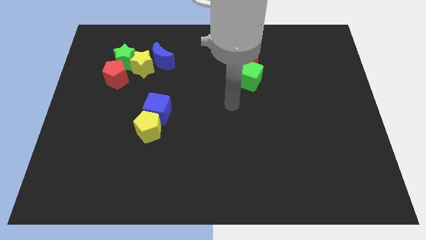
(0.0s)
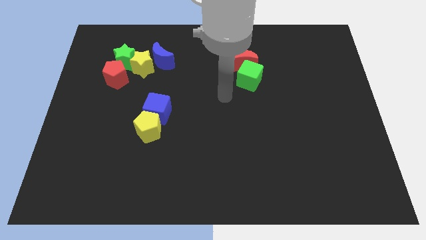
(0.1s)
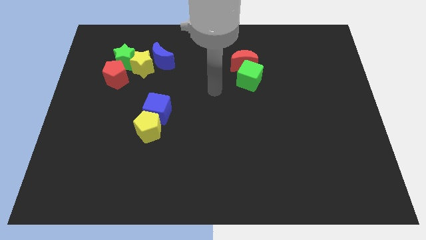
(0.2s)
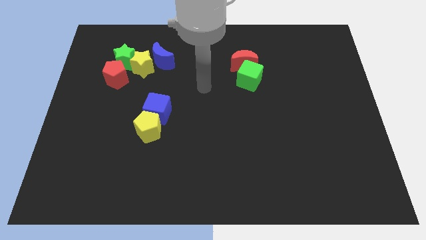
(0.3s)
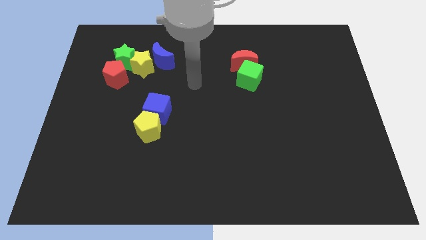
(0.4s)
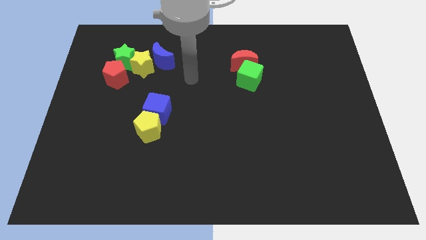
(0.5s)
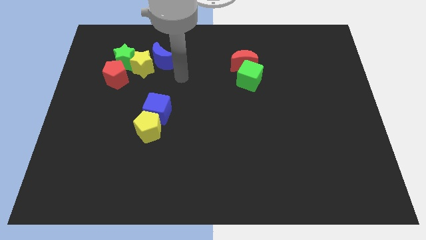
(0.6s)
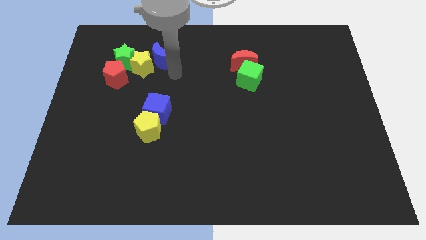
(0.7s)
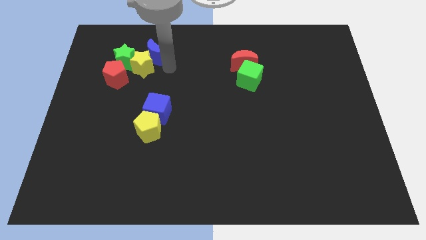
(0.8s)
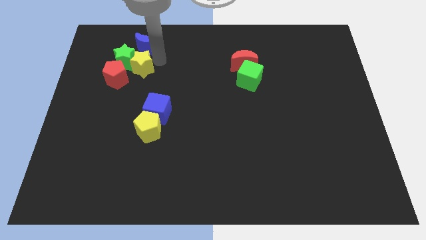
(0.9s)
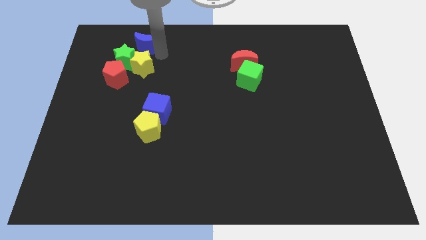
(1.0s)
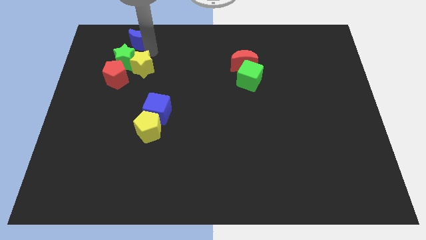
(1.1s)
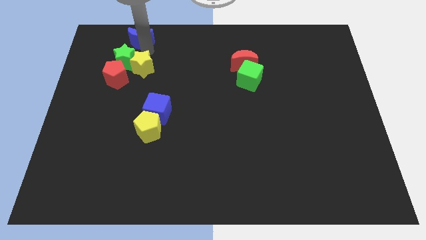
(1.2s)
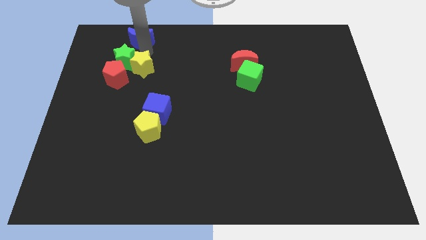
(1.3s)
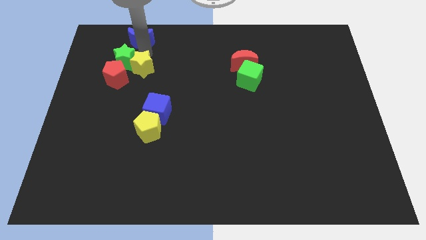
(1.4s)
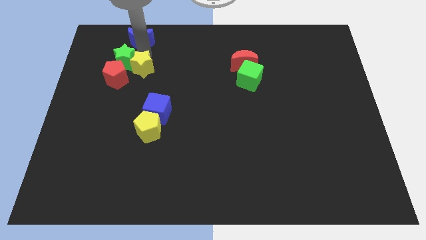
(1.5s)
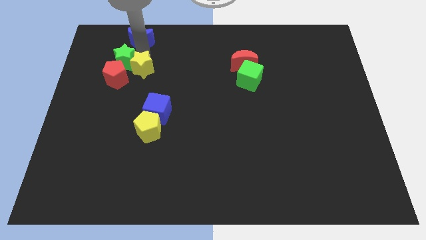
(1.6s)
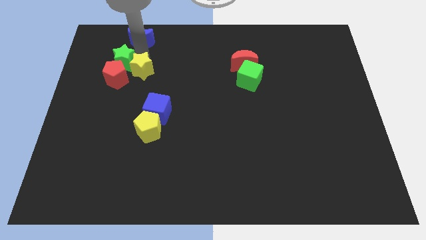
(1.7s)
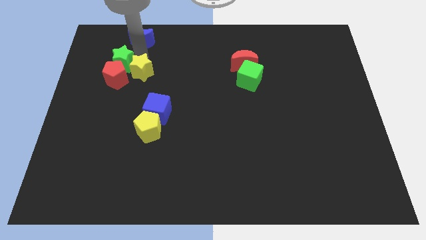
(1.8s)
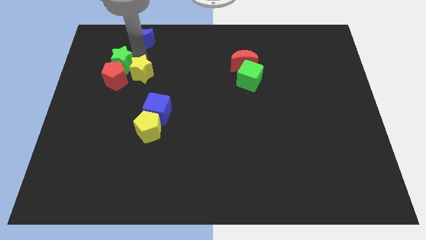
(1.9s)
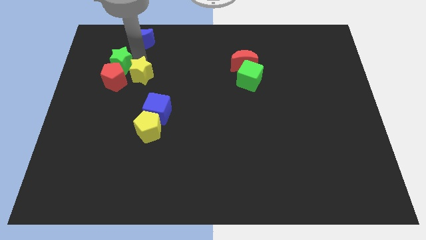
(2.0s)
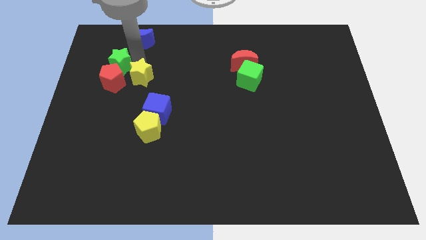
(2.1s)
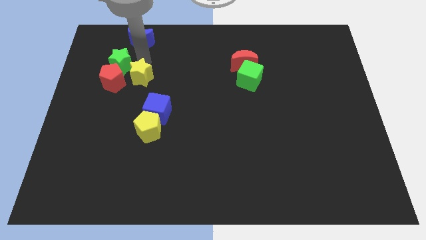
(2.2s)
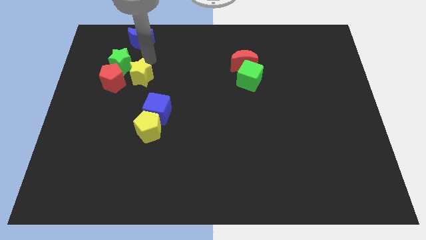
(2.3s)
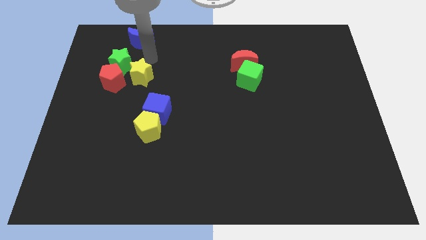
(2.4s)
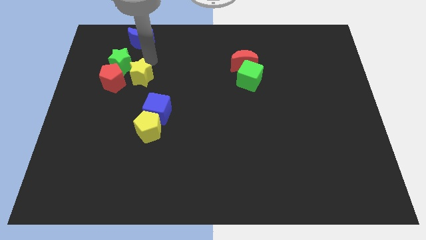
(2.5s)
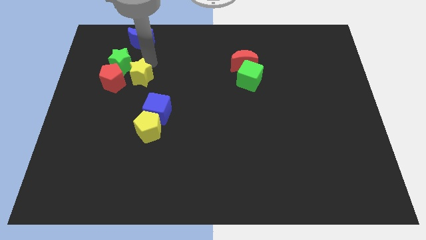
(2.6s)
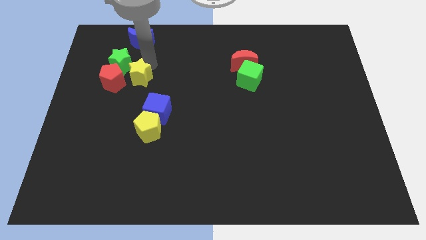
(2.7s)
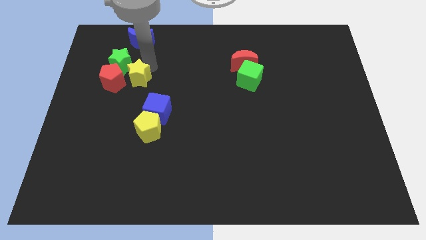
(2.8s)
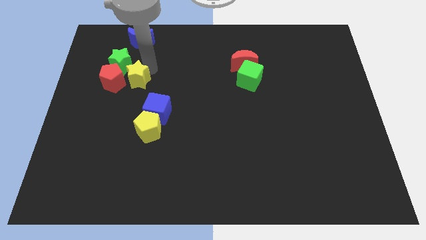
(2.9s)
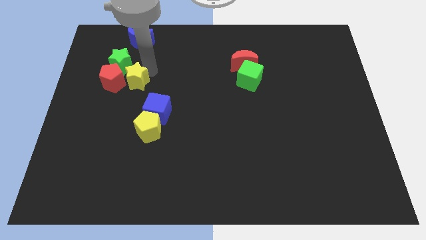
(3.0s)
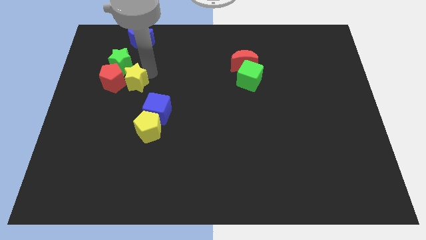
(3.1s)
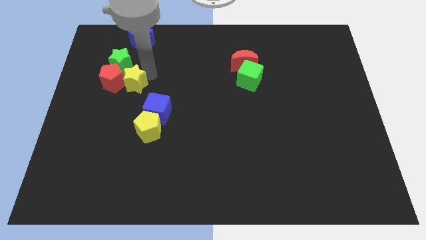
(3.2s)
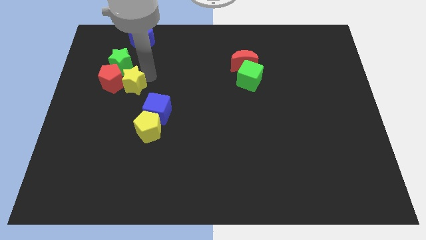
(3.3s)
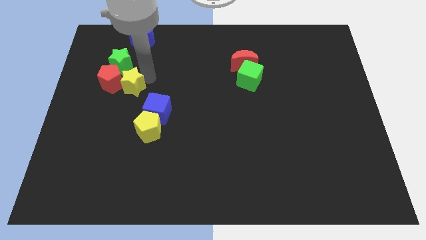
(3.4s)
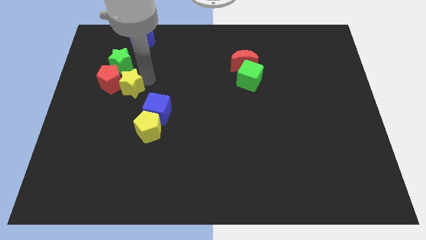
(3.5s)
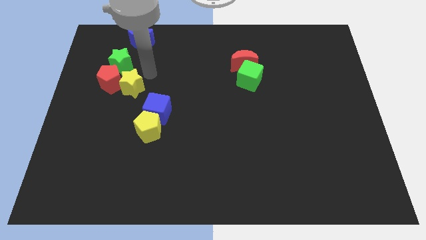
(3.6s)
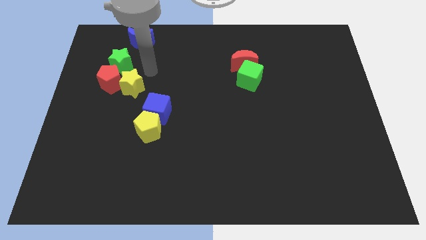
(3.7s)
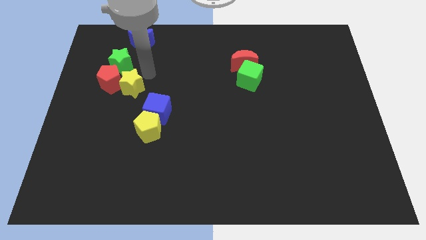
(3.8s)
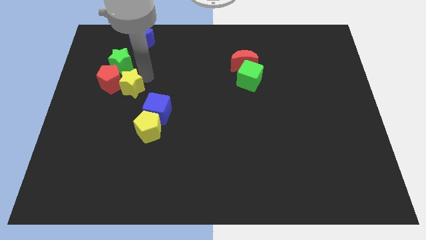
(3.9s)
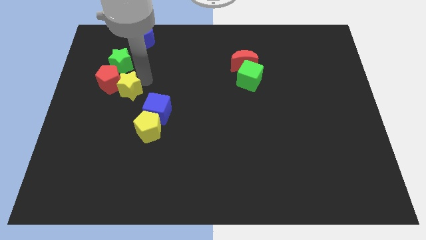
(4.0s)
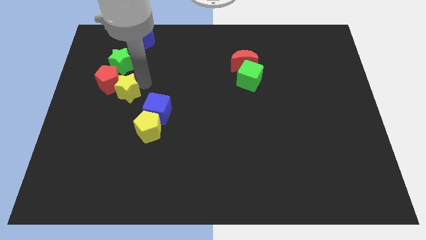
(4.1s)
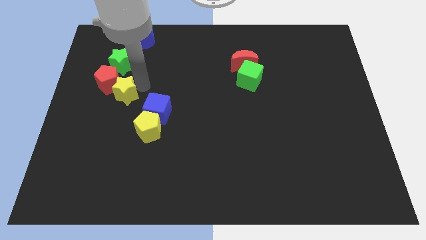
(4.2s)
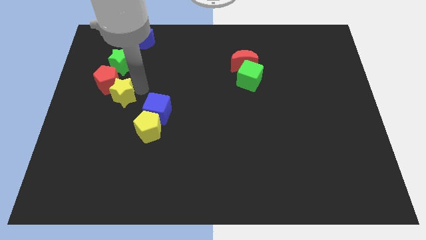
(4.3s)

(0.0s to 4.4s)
put the yellow star to the bottom of the red pentagon

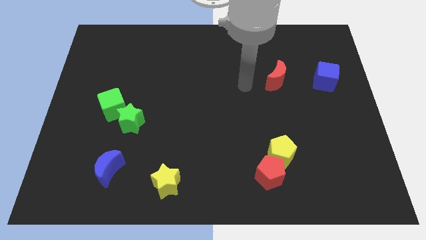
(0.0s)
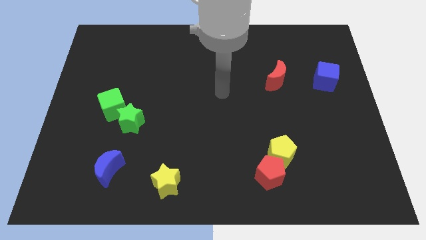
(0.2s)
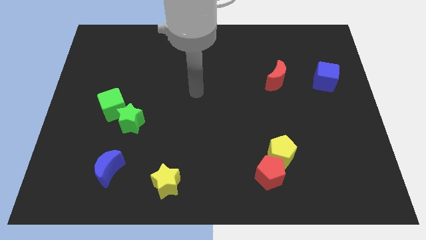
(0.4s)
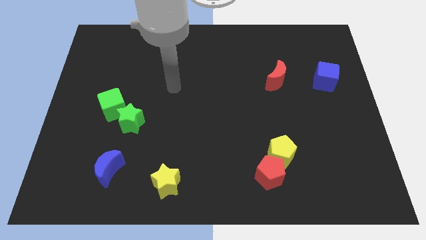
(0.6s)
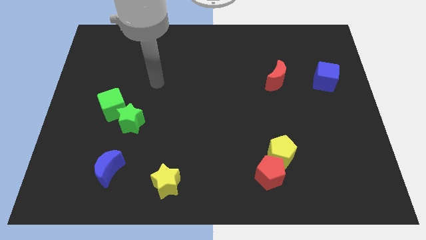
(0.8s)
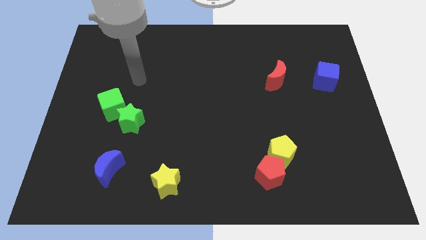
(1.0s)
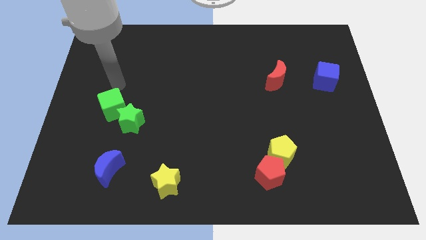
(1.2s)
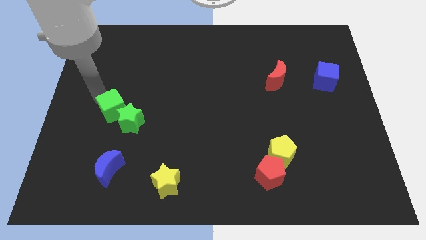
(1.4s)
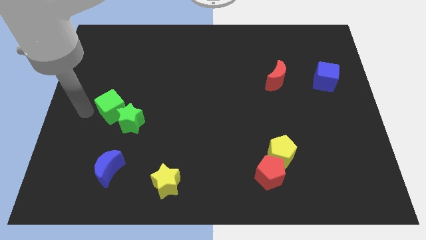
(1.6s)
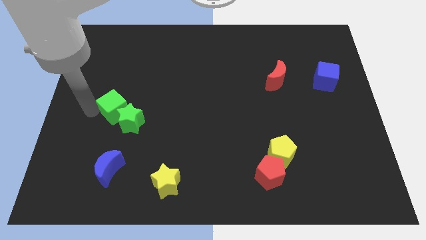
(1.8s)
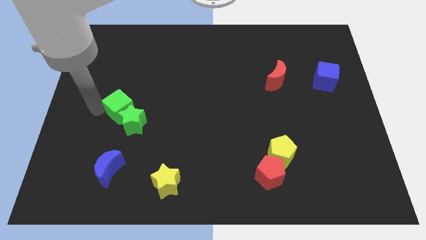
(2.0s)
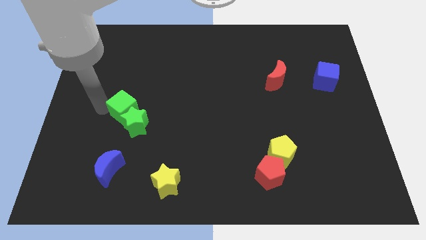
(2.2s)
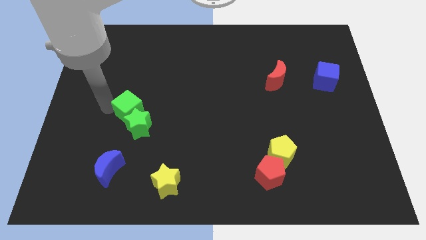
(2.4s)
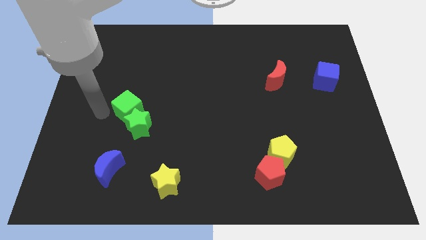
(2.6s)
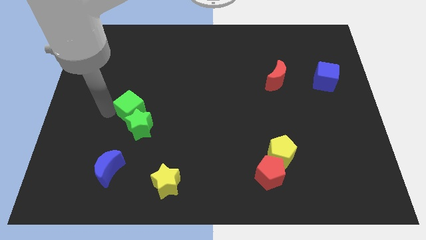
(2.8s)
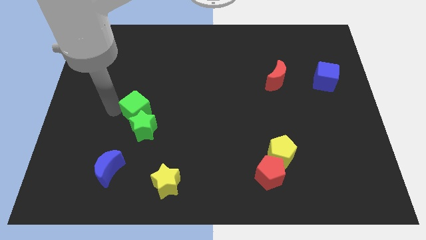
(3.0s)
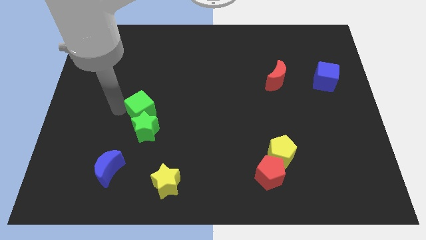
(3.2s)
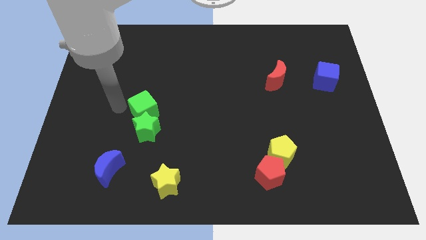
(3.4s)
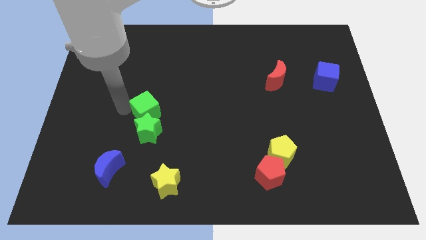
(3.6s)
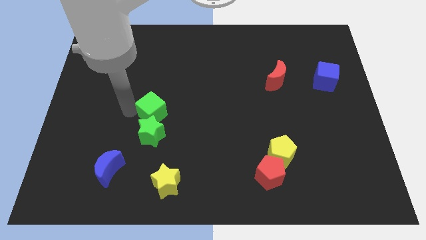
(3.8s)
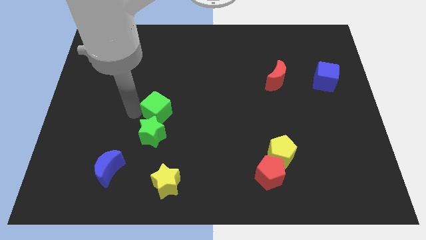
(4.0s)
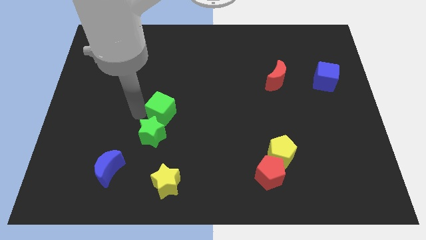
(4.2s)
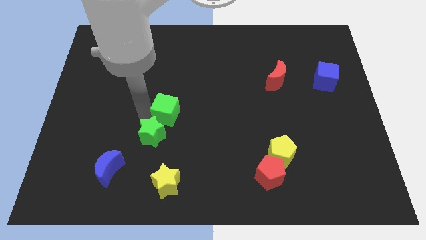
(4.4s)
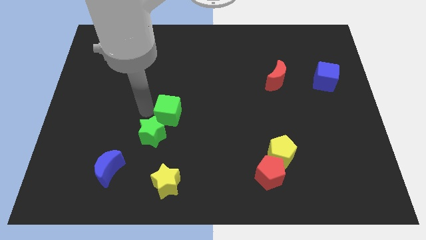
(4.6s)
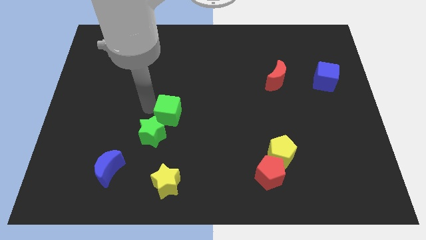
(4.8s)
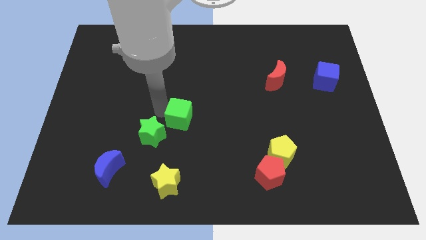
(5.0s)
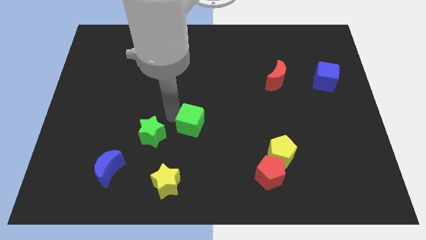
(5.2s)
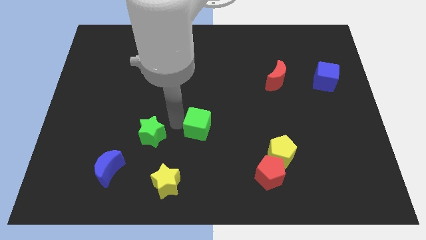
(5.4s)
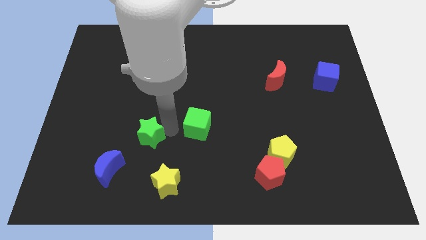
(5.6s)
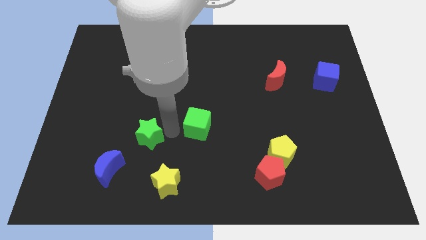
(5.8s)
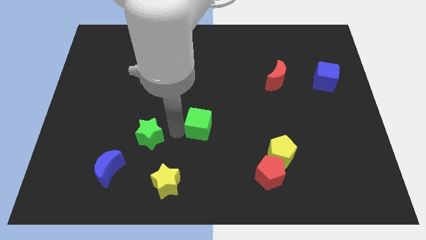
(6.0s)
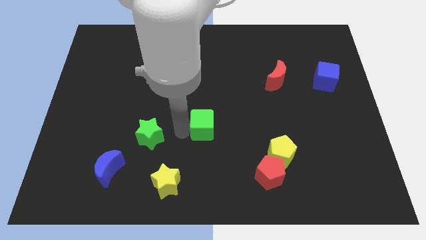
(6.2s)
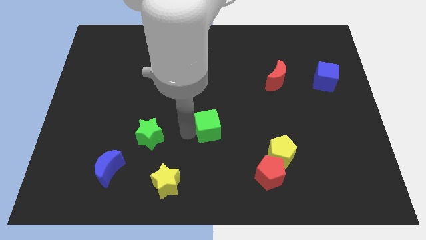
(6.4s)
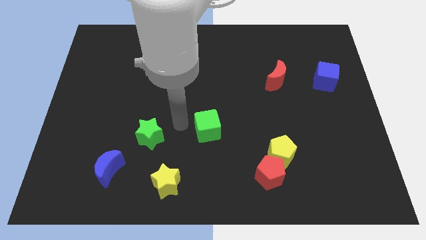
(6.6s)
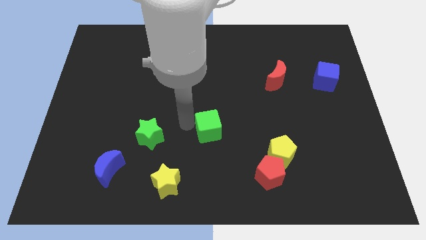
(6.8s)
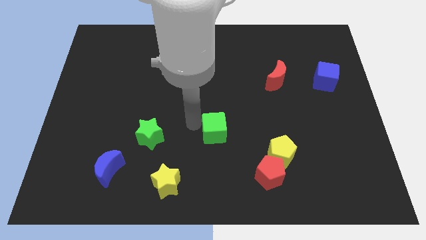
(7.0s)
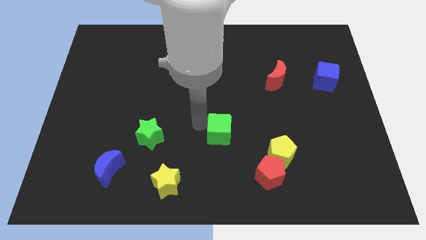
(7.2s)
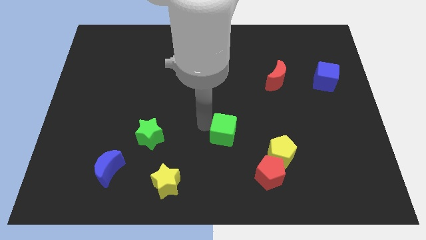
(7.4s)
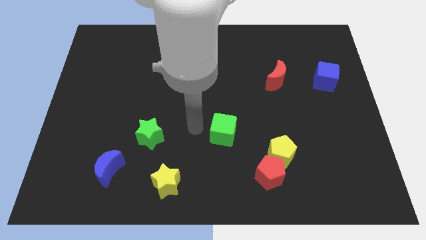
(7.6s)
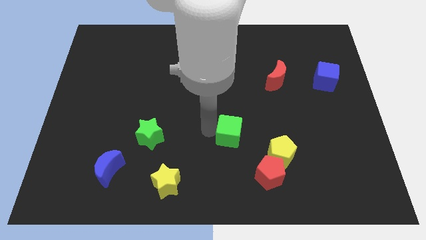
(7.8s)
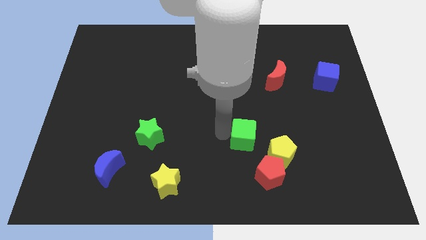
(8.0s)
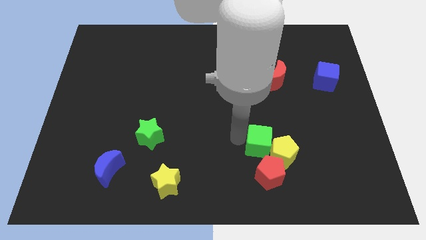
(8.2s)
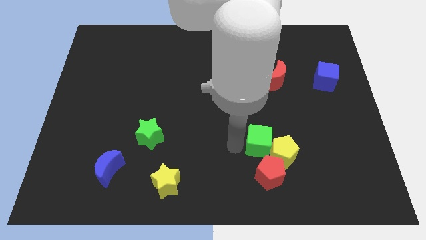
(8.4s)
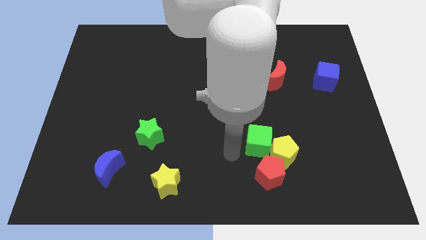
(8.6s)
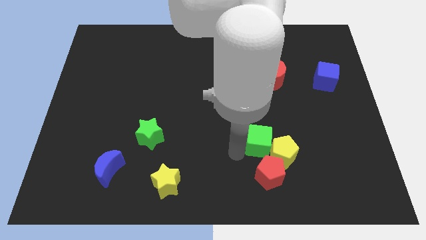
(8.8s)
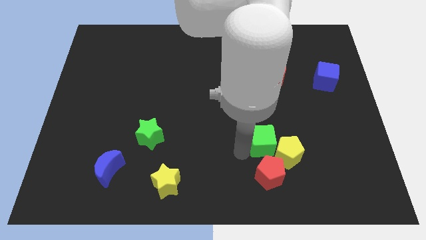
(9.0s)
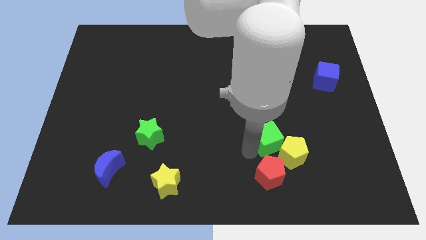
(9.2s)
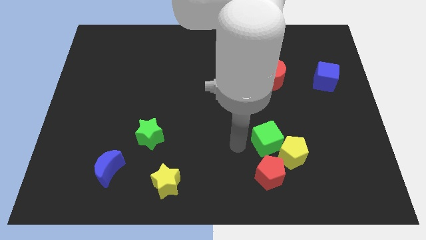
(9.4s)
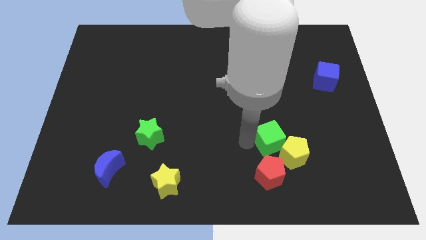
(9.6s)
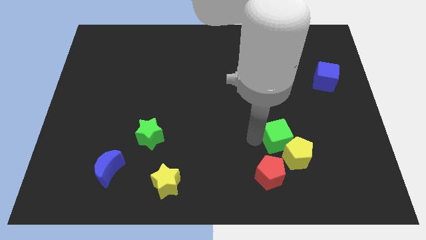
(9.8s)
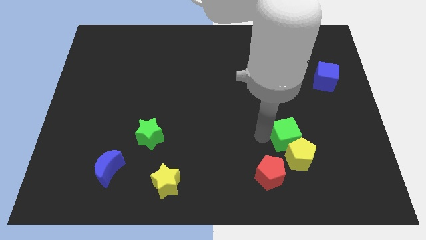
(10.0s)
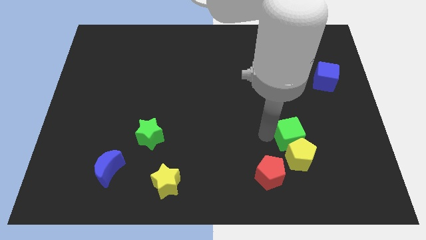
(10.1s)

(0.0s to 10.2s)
slide the green cube to the top right side of the yellow pentagon
